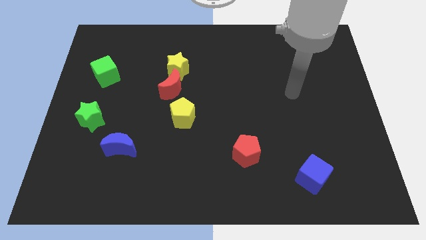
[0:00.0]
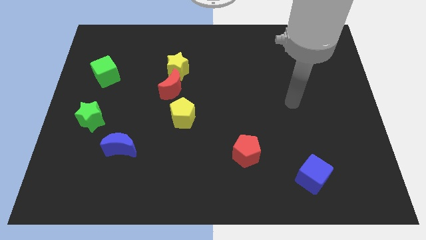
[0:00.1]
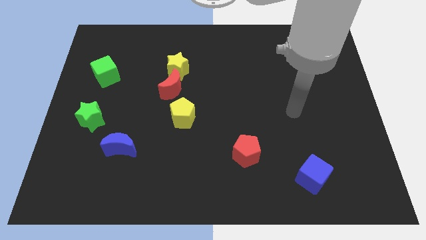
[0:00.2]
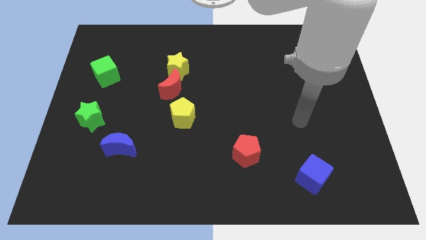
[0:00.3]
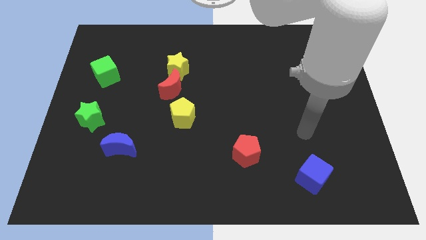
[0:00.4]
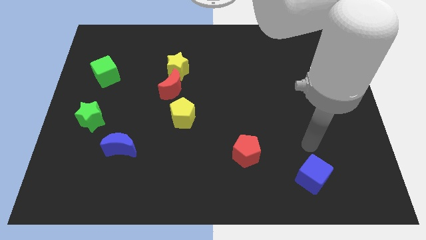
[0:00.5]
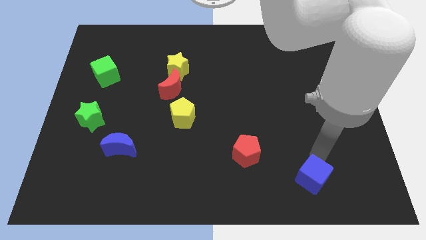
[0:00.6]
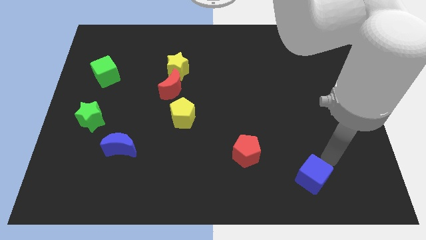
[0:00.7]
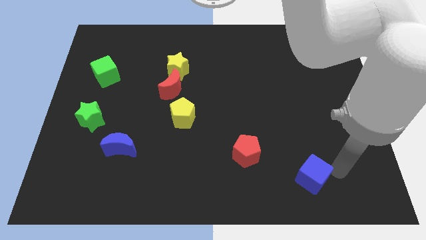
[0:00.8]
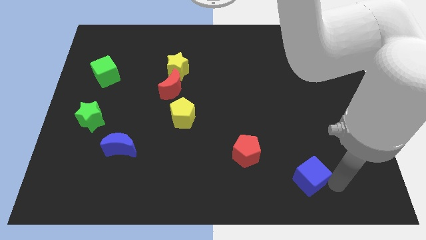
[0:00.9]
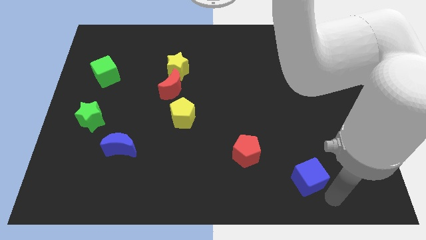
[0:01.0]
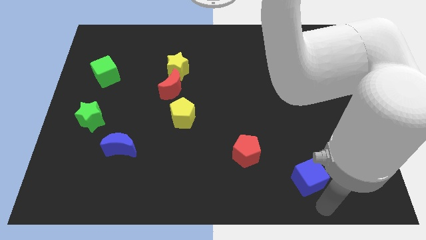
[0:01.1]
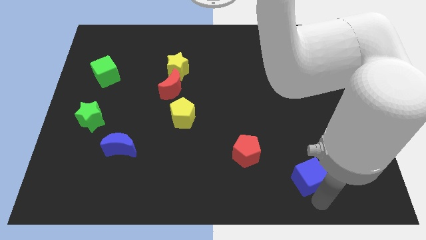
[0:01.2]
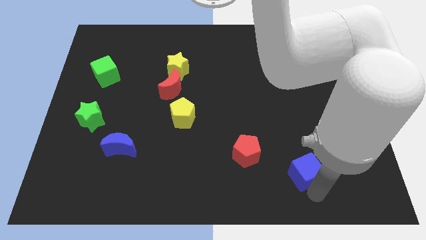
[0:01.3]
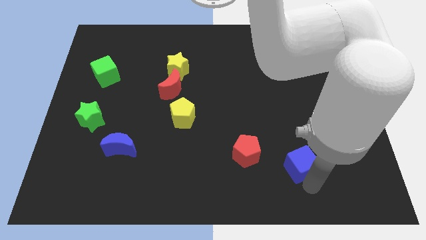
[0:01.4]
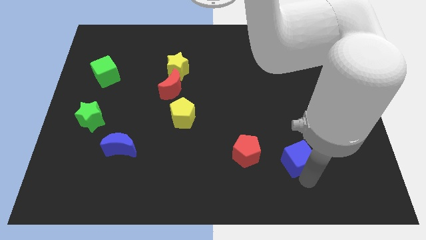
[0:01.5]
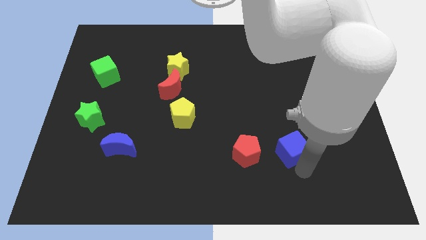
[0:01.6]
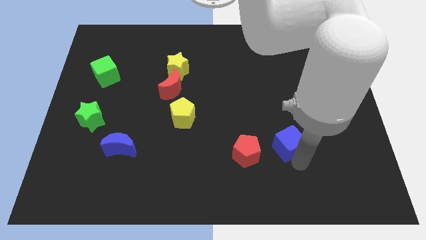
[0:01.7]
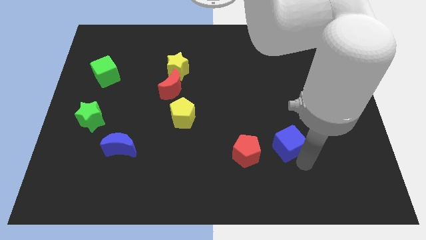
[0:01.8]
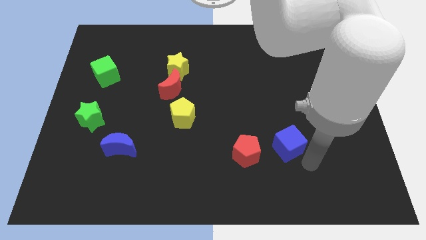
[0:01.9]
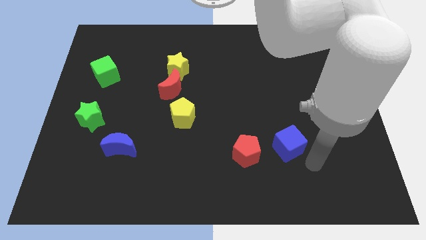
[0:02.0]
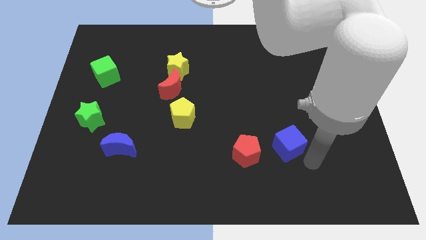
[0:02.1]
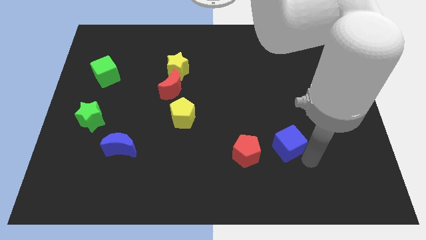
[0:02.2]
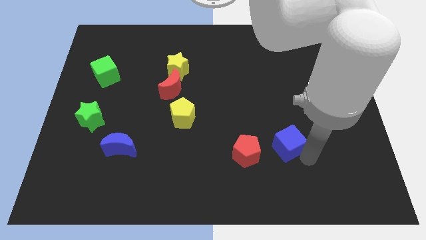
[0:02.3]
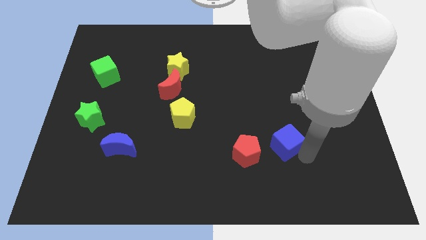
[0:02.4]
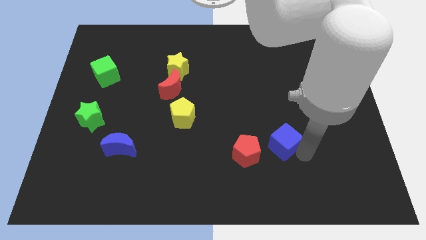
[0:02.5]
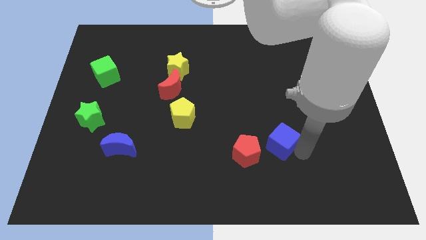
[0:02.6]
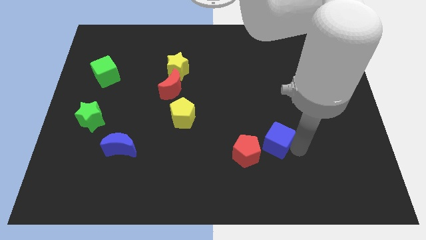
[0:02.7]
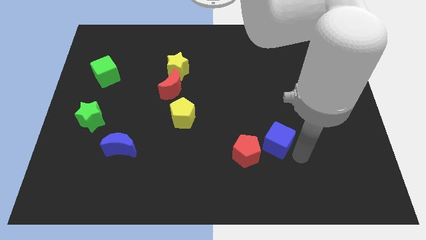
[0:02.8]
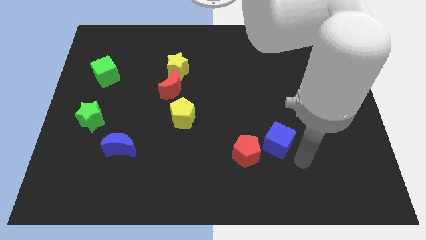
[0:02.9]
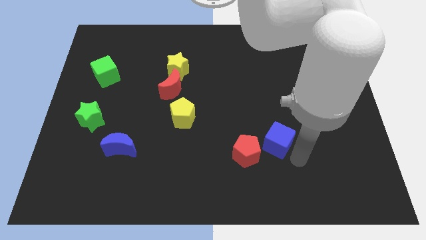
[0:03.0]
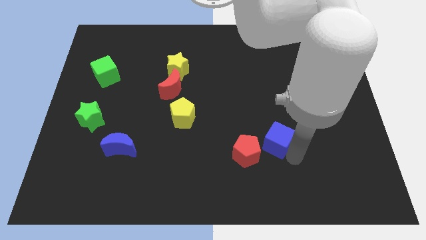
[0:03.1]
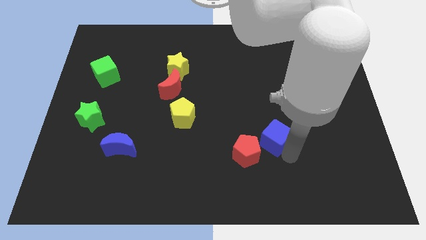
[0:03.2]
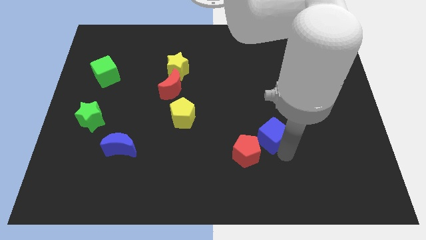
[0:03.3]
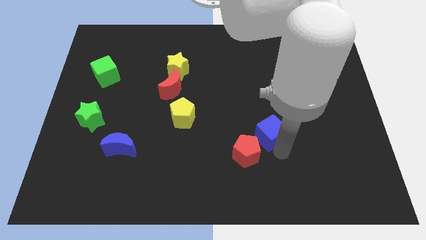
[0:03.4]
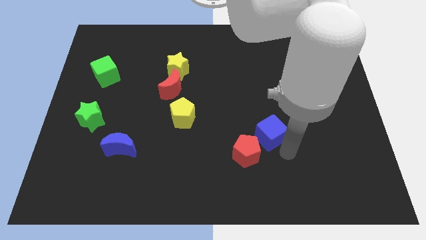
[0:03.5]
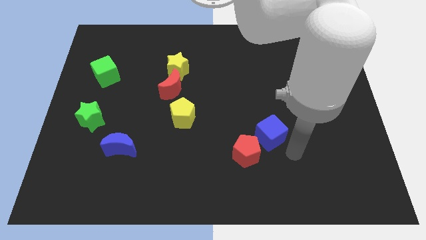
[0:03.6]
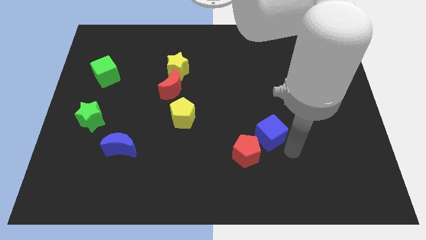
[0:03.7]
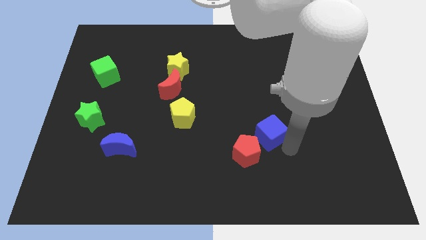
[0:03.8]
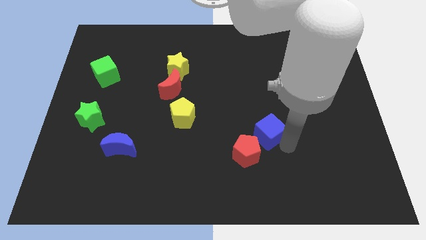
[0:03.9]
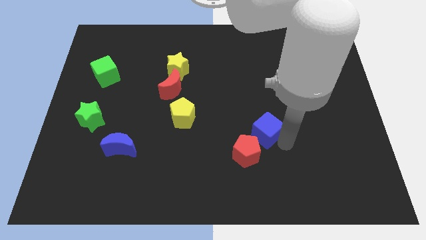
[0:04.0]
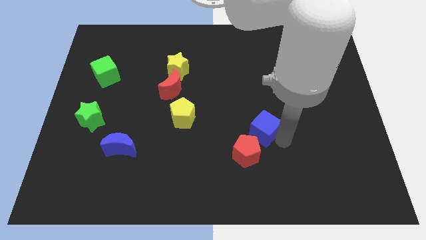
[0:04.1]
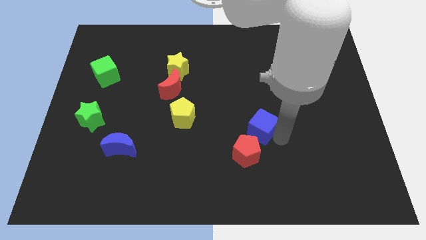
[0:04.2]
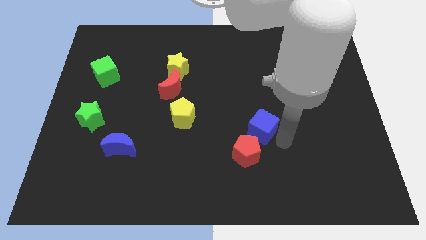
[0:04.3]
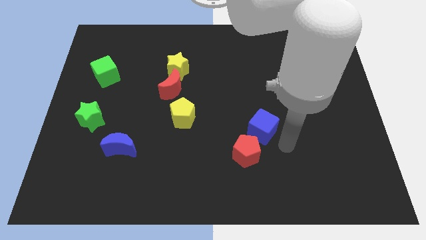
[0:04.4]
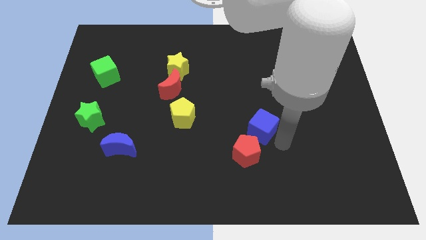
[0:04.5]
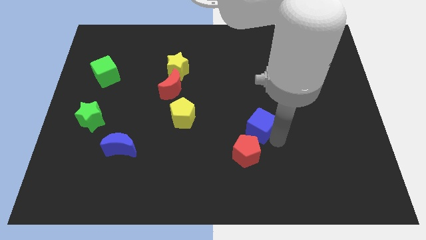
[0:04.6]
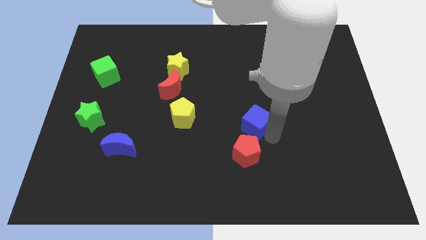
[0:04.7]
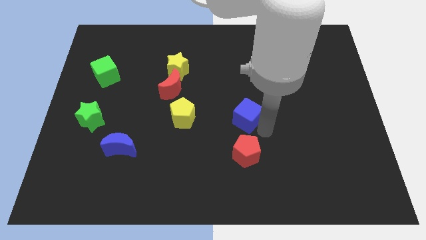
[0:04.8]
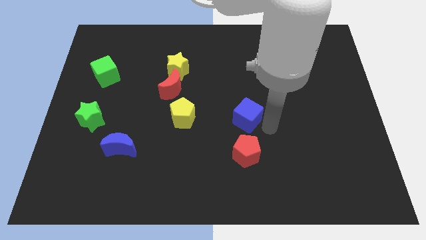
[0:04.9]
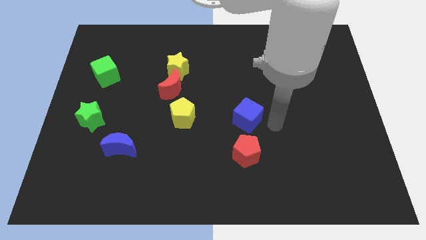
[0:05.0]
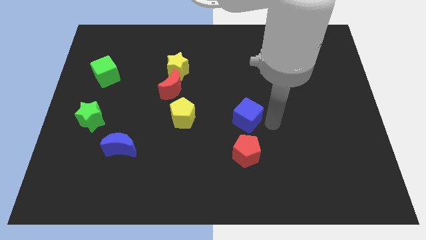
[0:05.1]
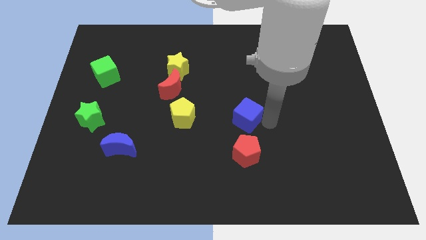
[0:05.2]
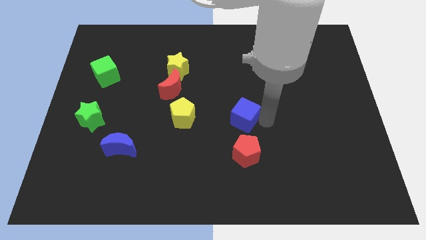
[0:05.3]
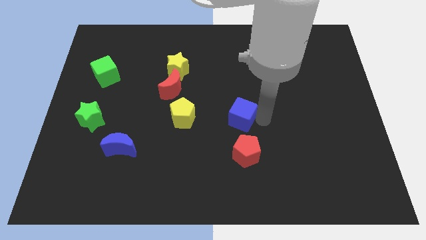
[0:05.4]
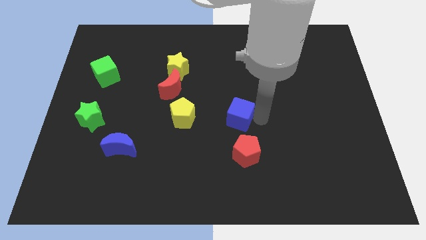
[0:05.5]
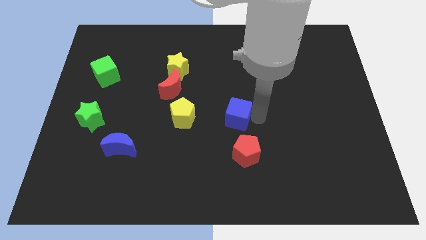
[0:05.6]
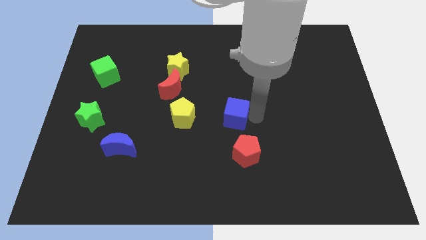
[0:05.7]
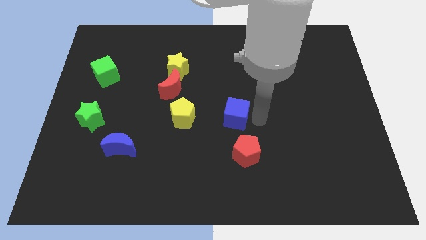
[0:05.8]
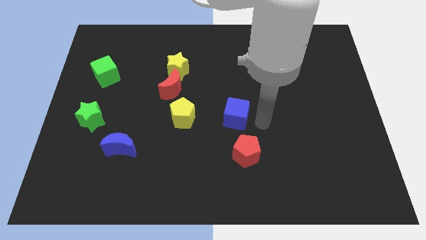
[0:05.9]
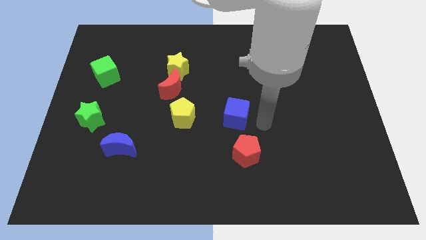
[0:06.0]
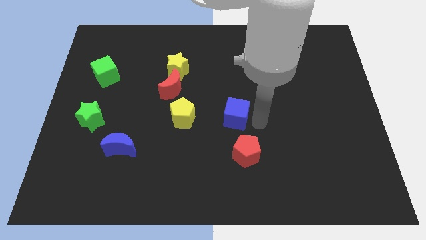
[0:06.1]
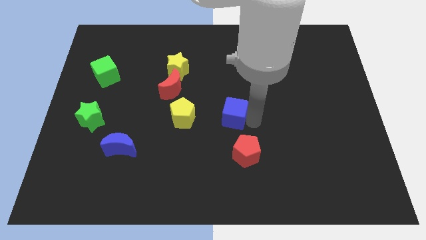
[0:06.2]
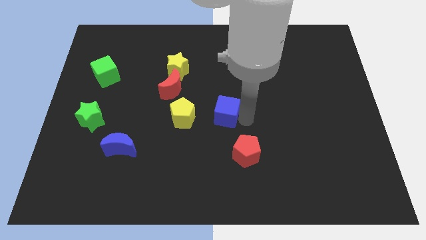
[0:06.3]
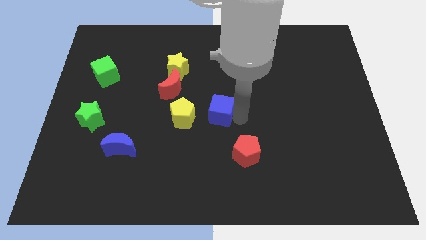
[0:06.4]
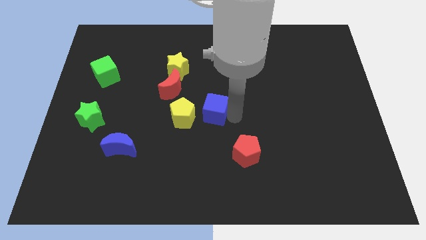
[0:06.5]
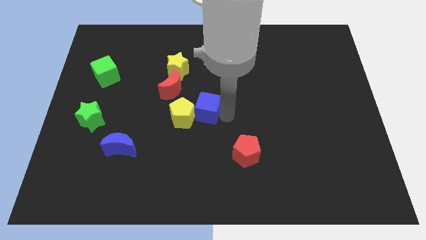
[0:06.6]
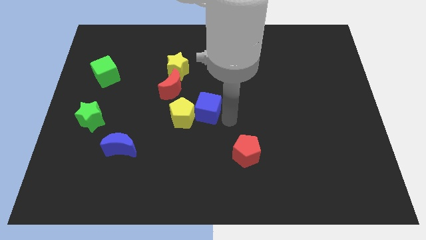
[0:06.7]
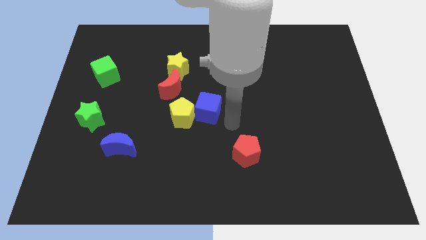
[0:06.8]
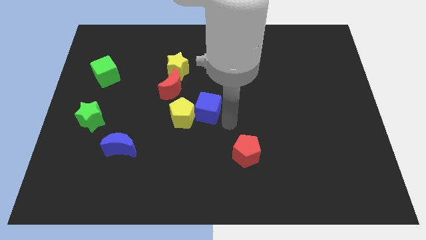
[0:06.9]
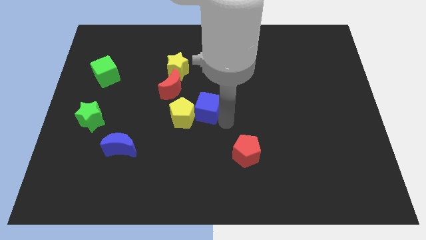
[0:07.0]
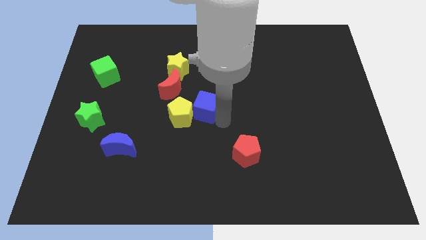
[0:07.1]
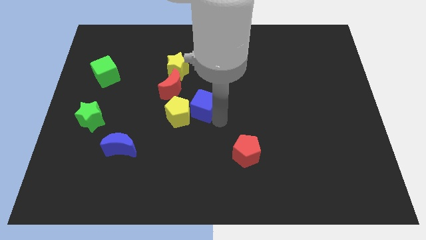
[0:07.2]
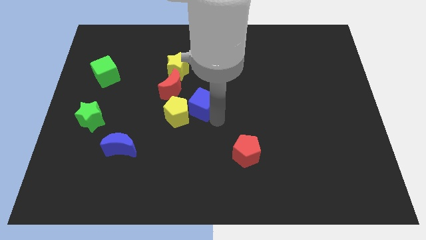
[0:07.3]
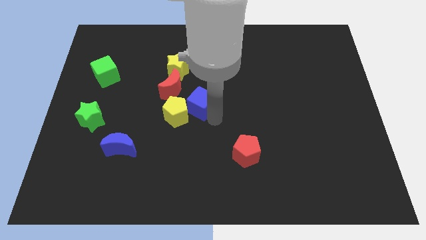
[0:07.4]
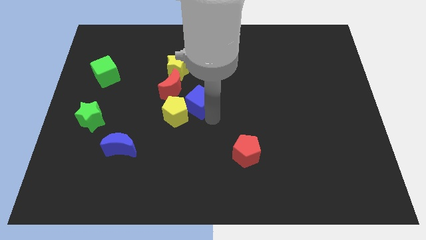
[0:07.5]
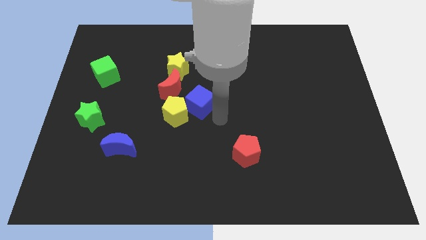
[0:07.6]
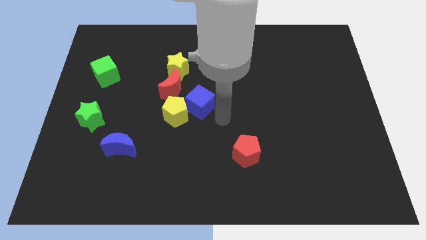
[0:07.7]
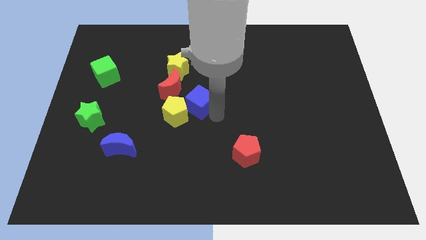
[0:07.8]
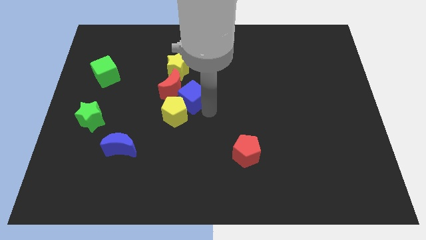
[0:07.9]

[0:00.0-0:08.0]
move the blue cube next to the red moon
